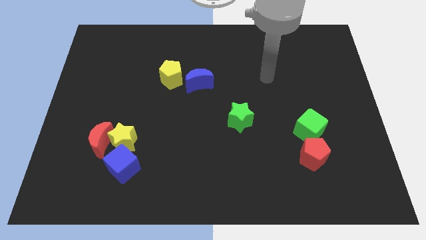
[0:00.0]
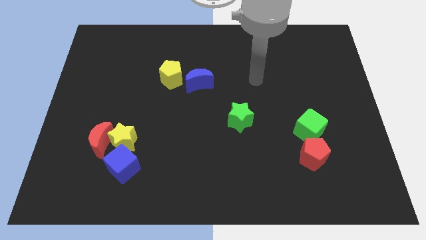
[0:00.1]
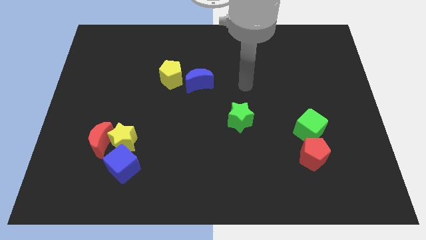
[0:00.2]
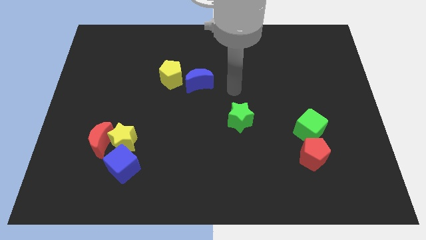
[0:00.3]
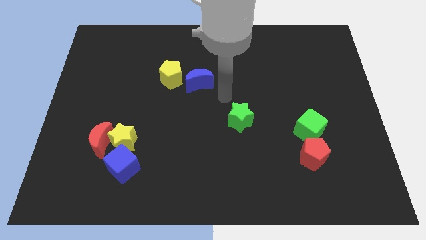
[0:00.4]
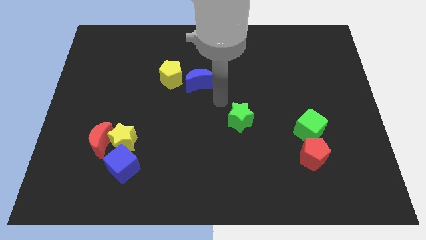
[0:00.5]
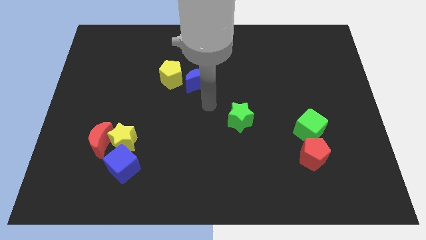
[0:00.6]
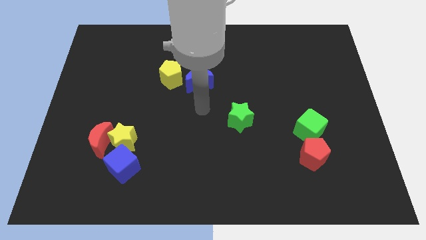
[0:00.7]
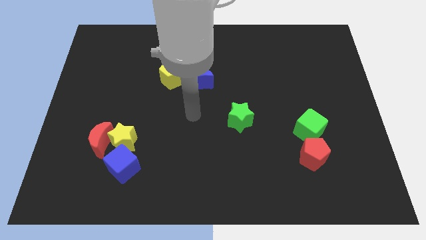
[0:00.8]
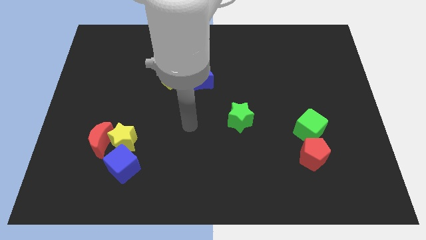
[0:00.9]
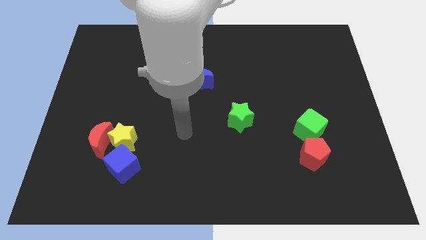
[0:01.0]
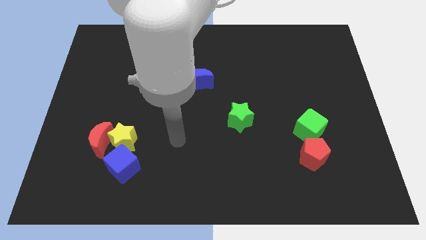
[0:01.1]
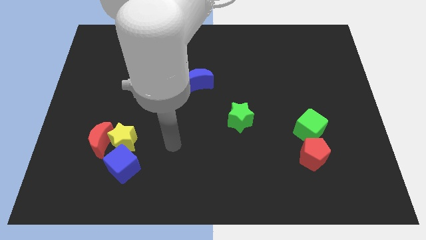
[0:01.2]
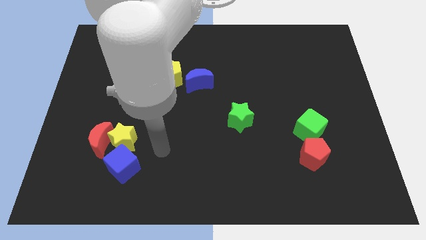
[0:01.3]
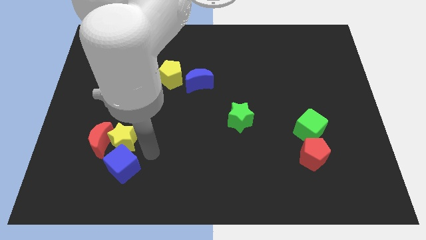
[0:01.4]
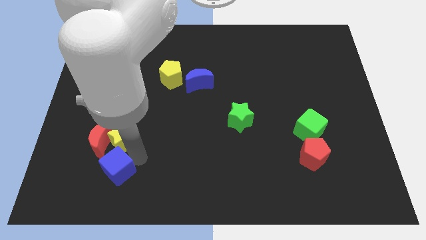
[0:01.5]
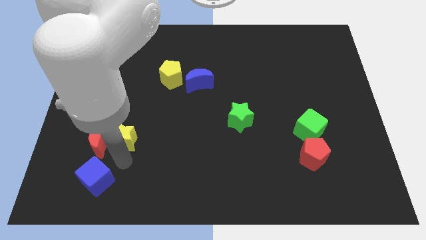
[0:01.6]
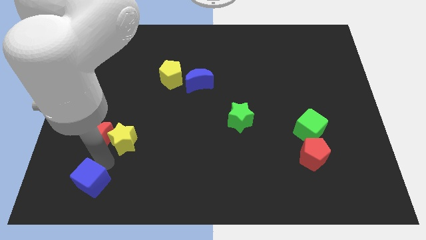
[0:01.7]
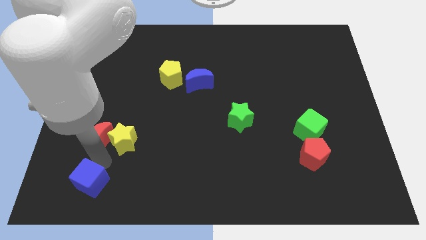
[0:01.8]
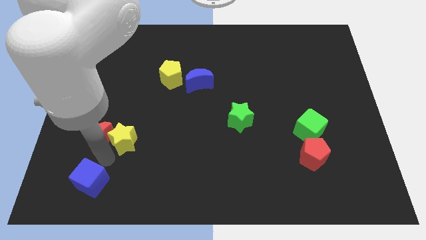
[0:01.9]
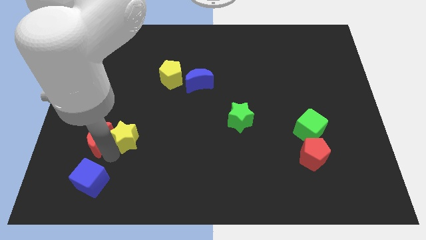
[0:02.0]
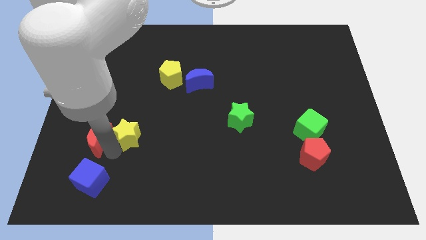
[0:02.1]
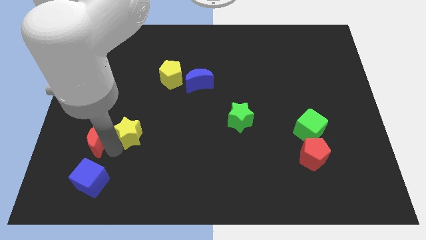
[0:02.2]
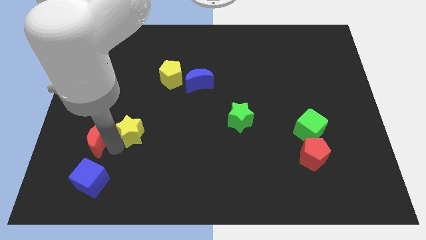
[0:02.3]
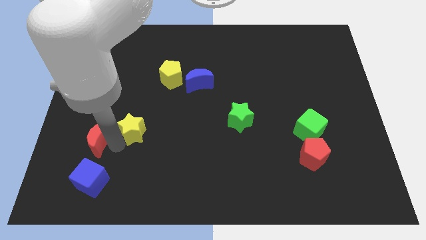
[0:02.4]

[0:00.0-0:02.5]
pull the yellow star apart from the red moon and blue cube

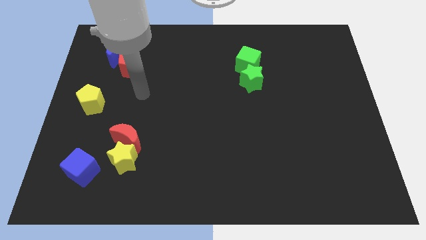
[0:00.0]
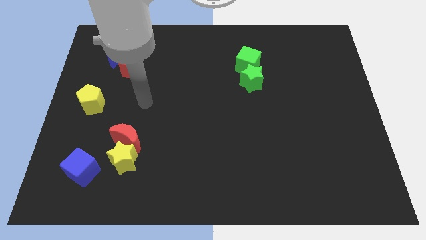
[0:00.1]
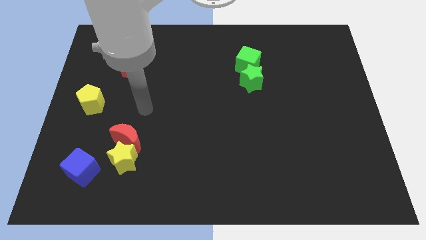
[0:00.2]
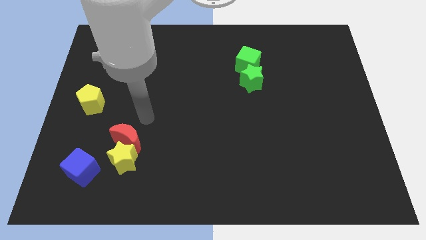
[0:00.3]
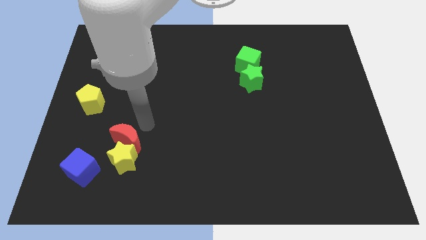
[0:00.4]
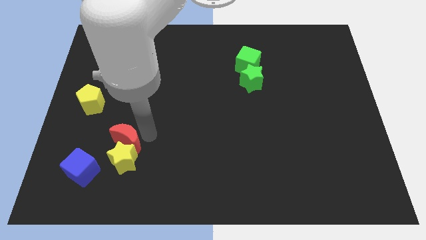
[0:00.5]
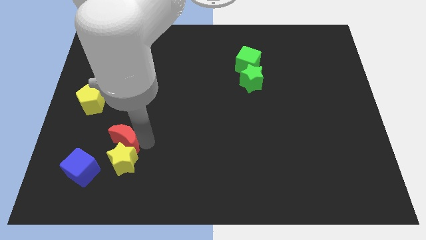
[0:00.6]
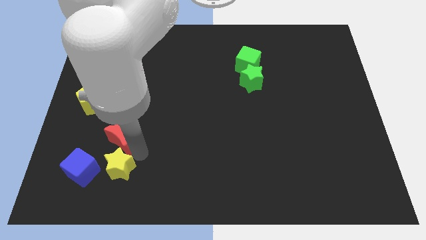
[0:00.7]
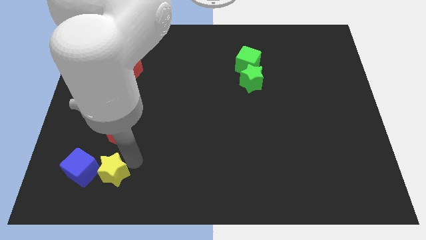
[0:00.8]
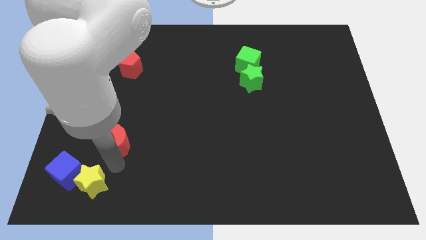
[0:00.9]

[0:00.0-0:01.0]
pull the red moon apart from the yellow star

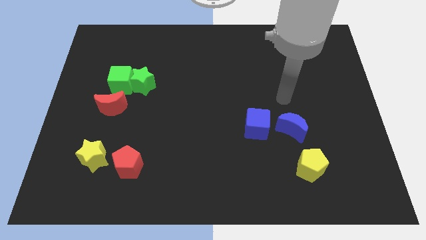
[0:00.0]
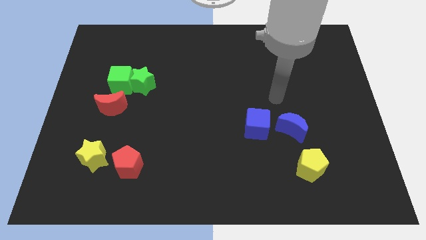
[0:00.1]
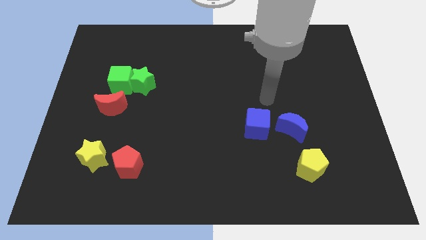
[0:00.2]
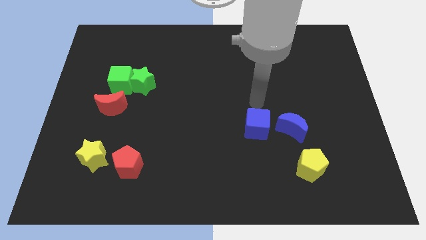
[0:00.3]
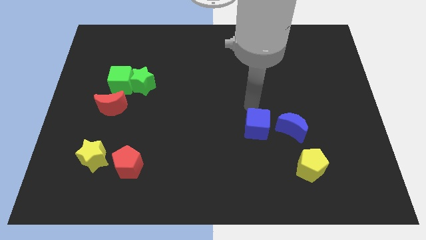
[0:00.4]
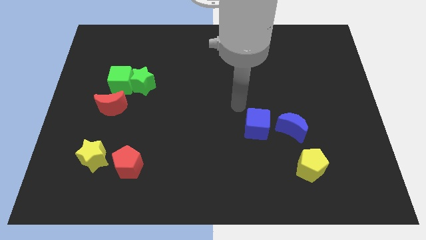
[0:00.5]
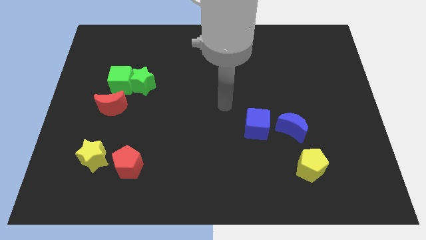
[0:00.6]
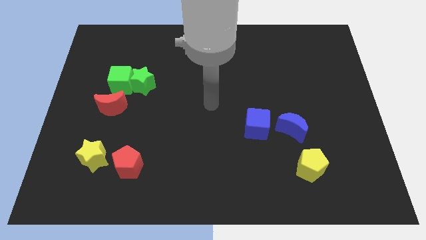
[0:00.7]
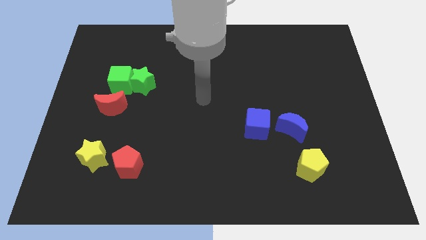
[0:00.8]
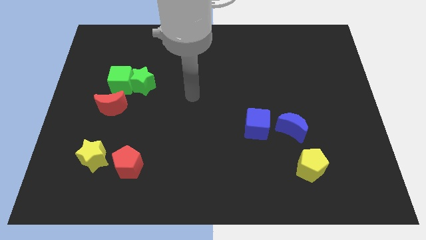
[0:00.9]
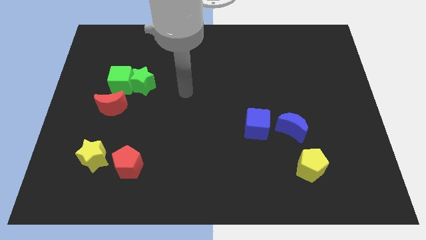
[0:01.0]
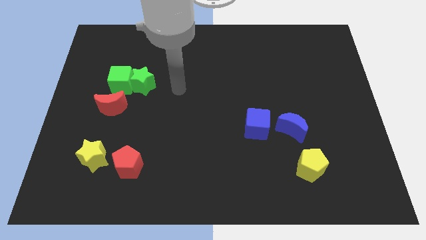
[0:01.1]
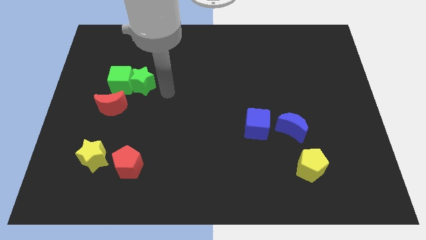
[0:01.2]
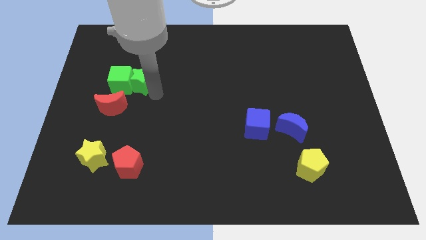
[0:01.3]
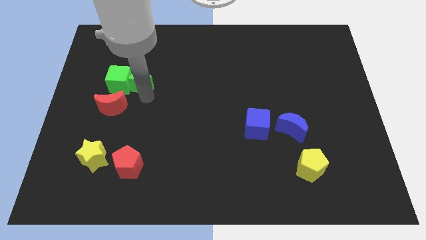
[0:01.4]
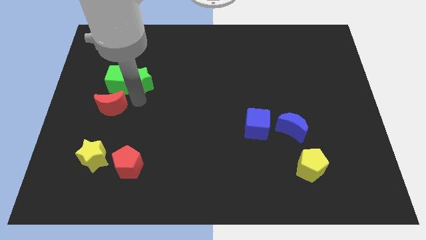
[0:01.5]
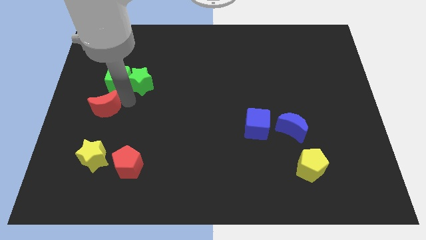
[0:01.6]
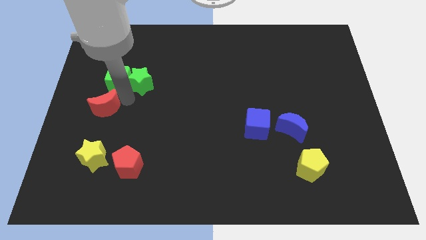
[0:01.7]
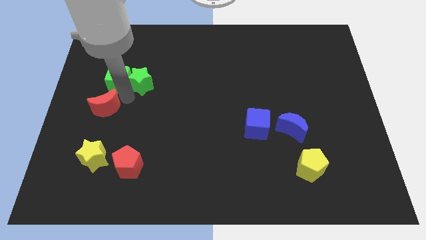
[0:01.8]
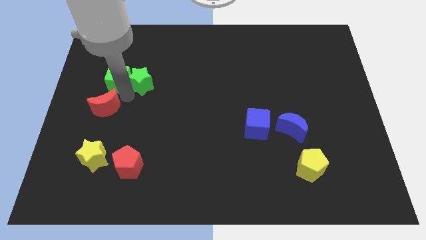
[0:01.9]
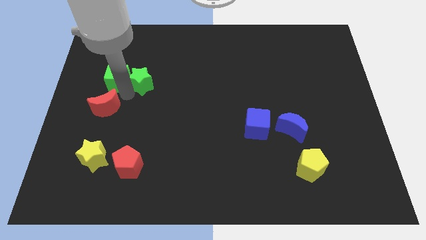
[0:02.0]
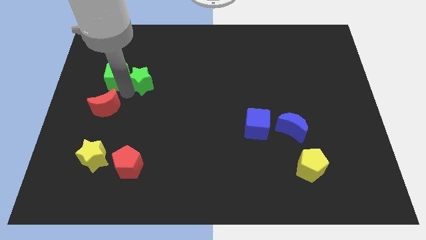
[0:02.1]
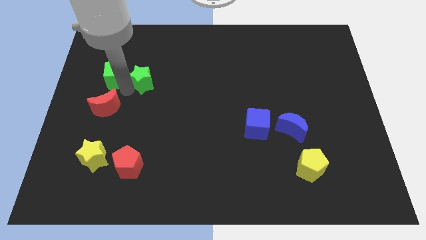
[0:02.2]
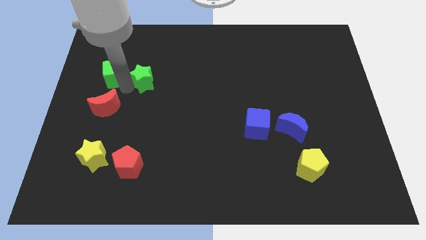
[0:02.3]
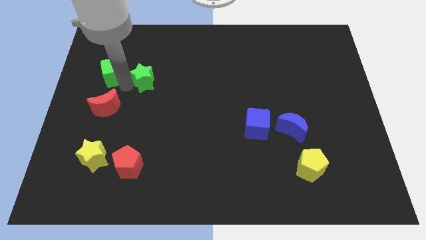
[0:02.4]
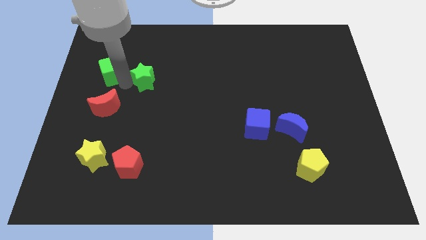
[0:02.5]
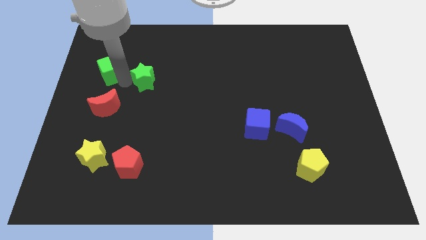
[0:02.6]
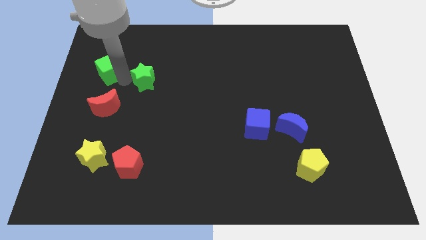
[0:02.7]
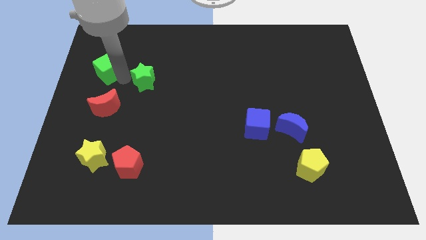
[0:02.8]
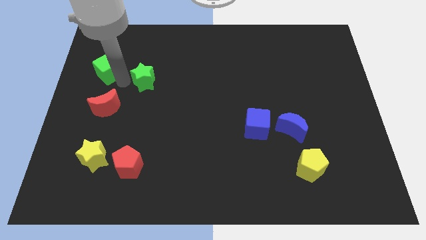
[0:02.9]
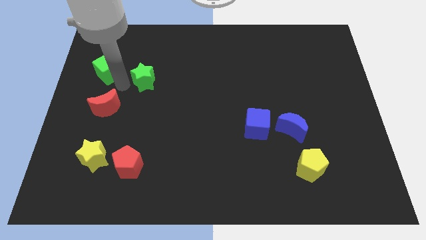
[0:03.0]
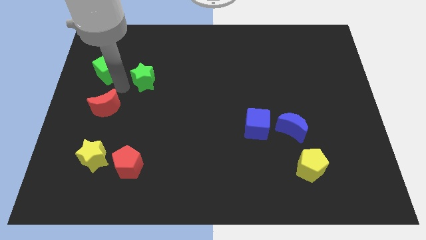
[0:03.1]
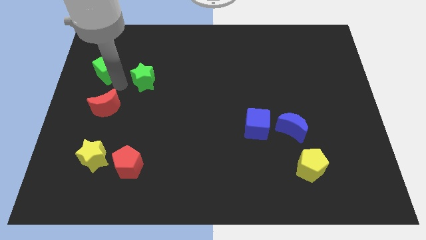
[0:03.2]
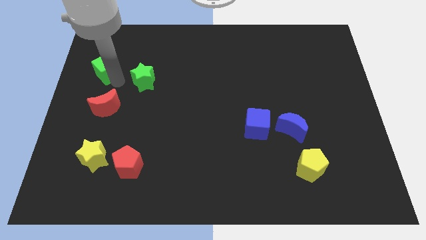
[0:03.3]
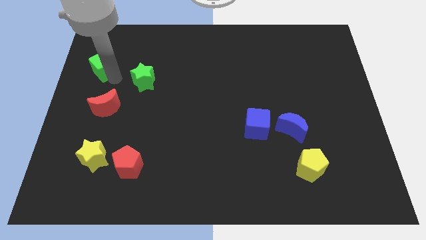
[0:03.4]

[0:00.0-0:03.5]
pull the green cube apart from the green star and red moon

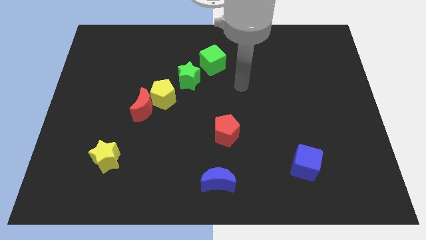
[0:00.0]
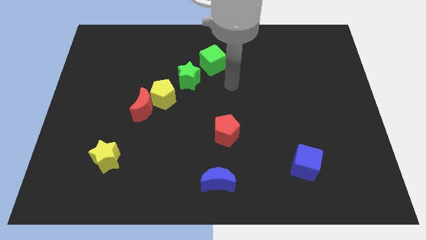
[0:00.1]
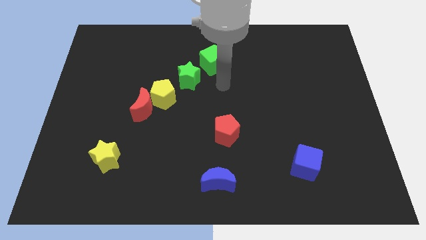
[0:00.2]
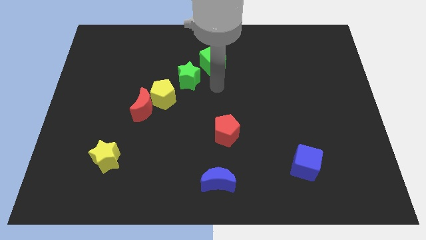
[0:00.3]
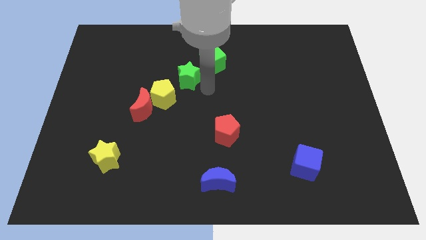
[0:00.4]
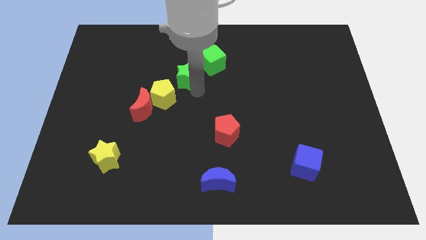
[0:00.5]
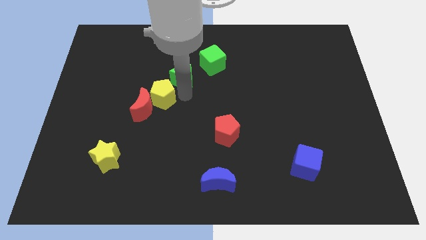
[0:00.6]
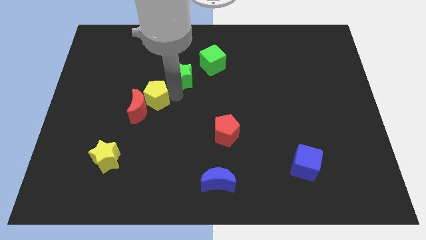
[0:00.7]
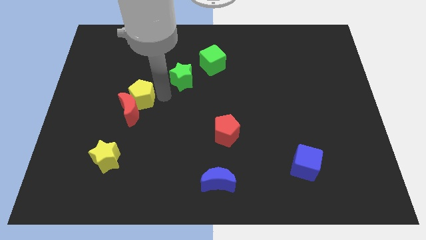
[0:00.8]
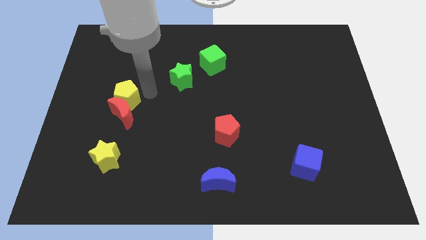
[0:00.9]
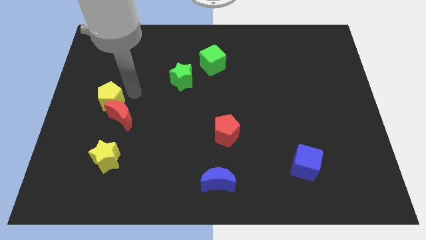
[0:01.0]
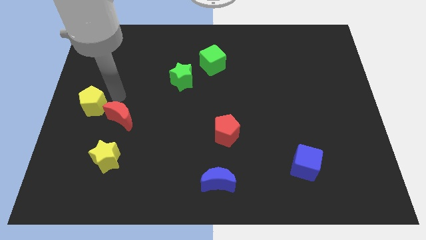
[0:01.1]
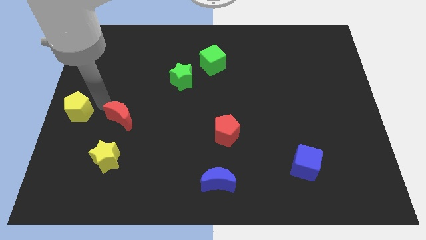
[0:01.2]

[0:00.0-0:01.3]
move the red moon away from the yellow pentagon

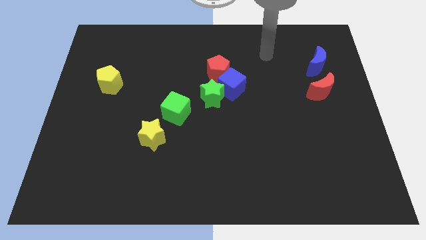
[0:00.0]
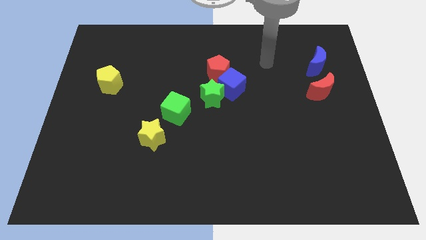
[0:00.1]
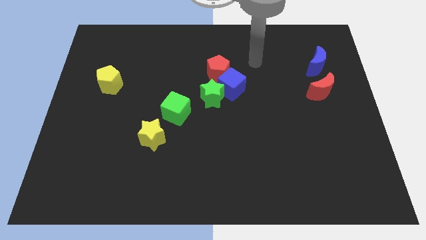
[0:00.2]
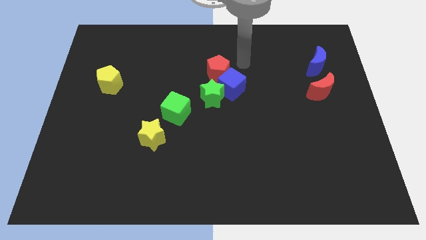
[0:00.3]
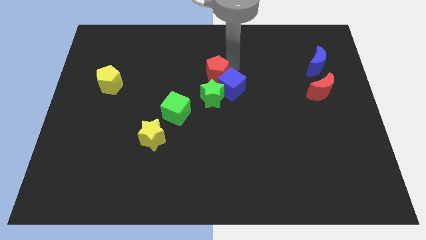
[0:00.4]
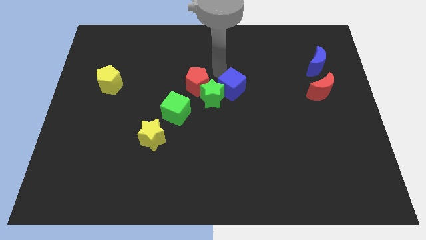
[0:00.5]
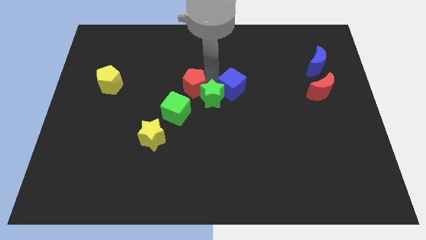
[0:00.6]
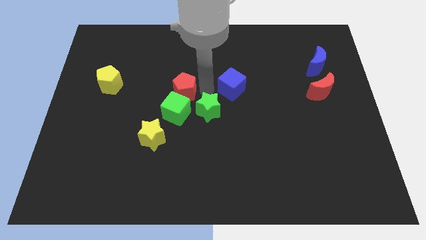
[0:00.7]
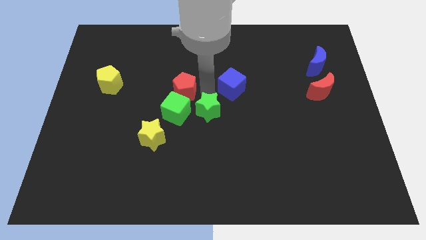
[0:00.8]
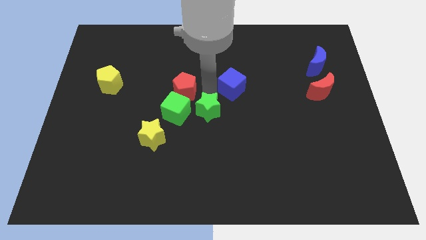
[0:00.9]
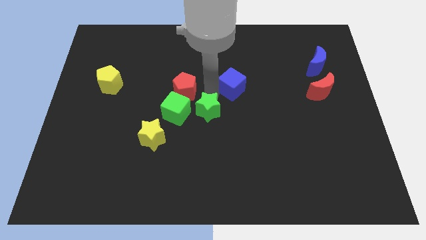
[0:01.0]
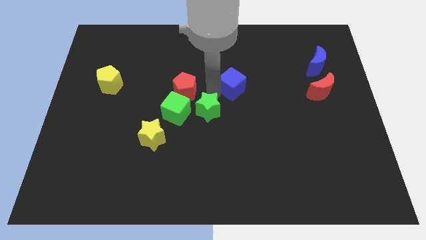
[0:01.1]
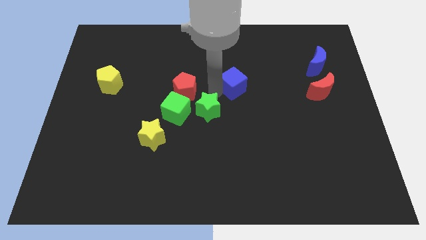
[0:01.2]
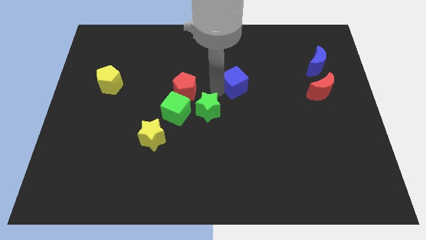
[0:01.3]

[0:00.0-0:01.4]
move the blue cube away from the green star and red pentagon
